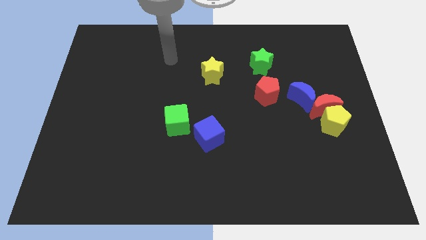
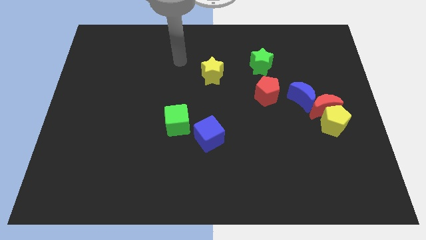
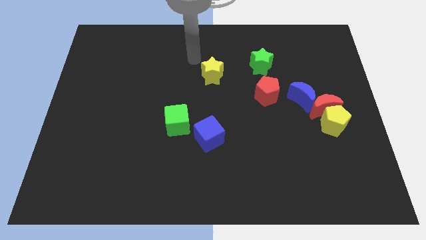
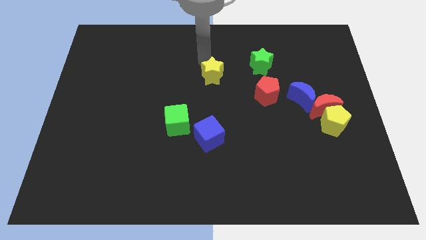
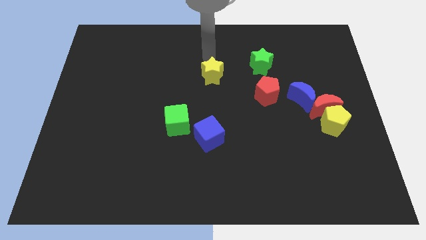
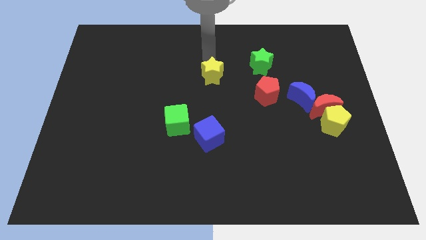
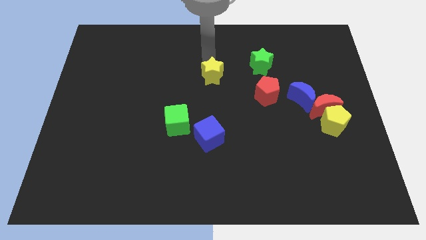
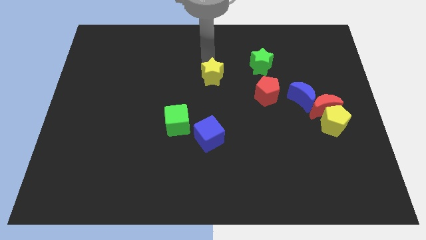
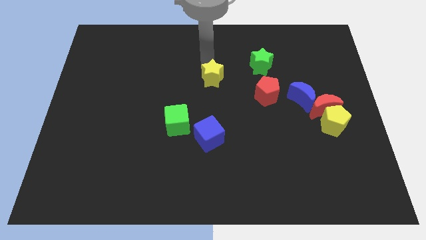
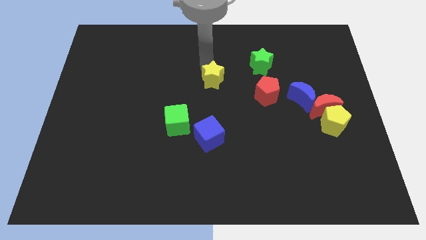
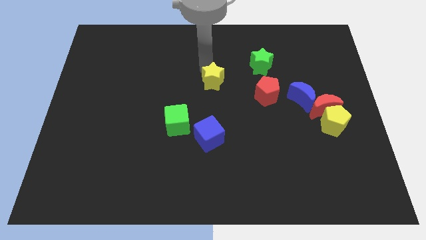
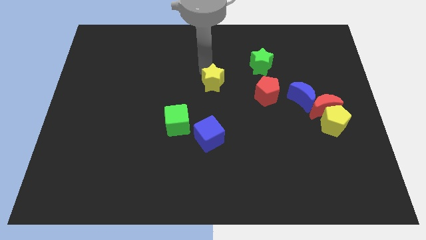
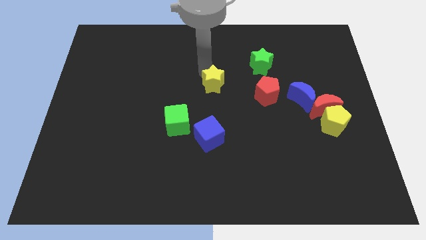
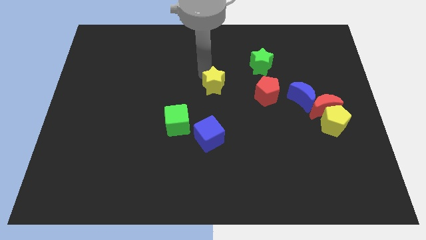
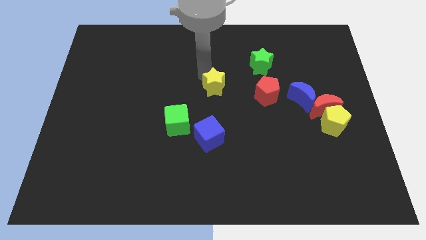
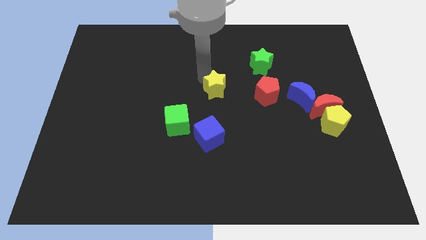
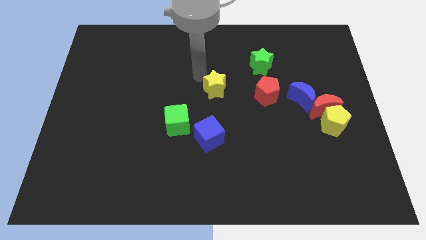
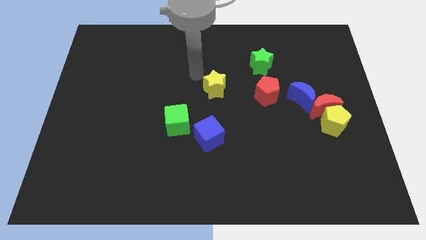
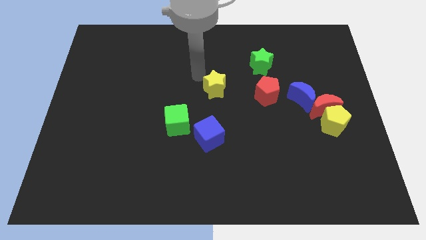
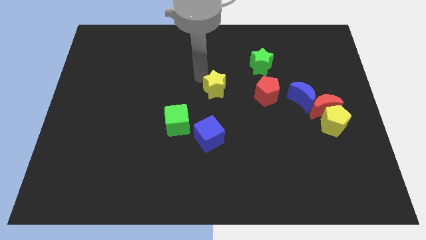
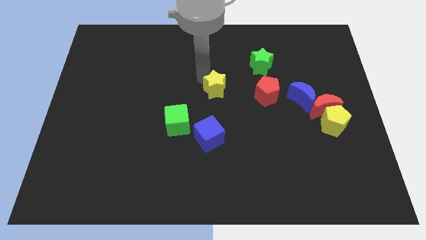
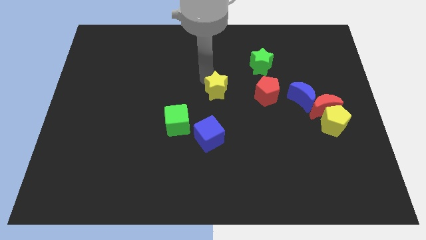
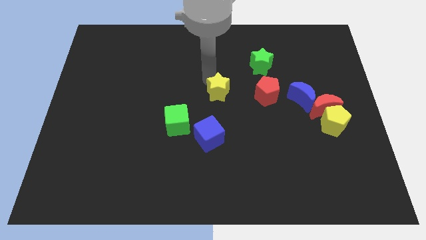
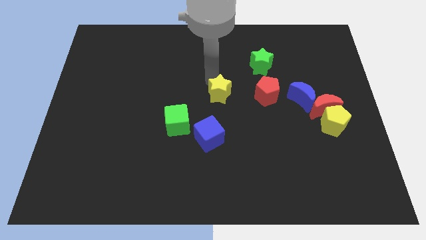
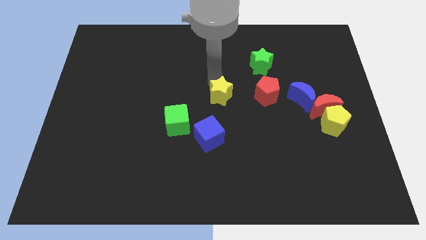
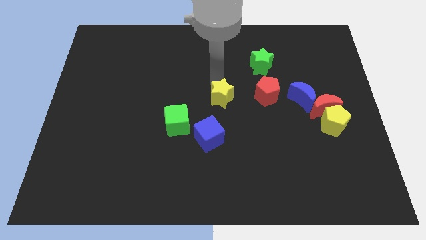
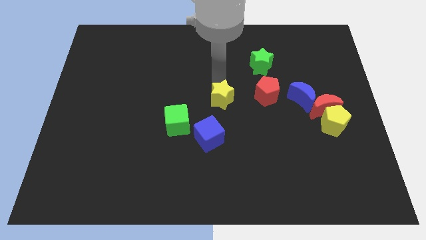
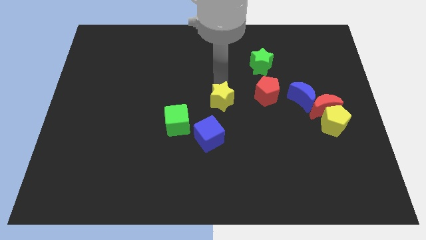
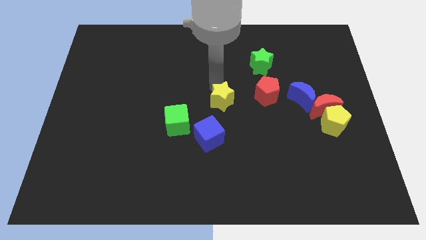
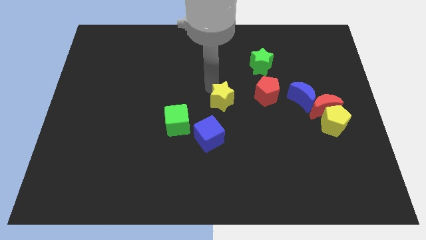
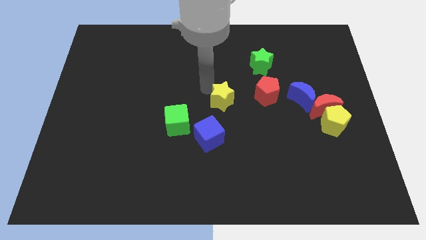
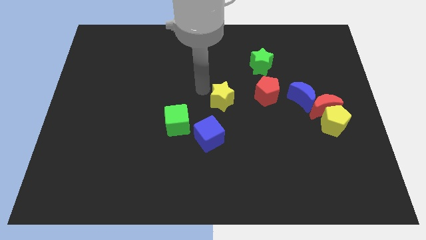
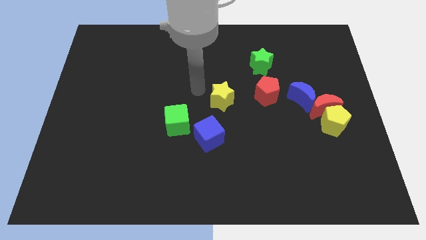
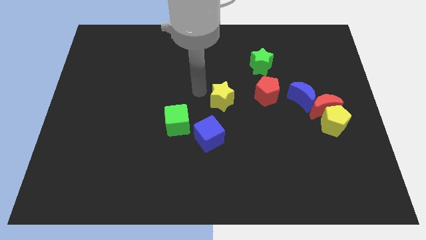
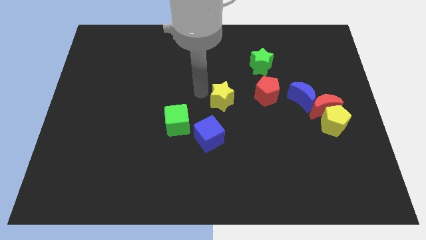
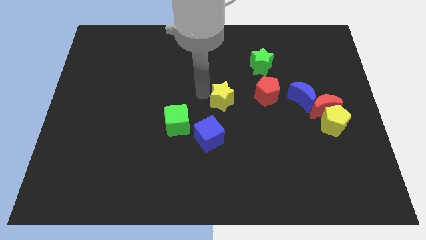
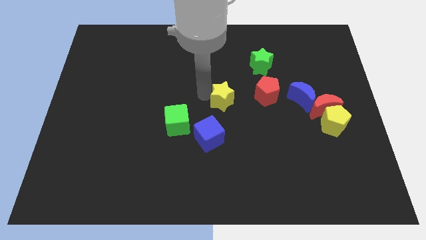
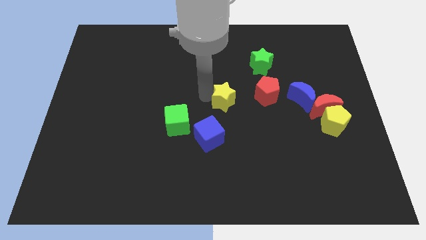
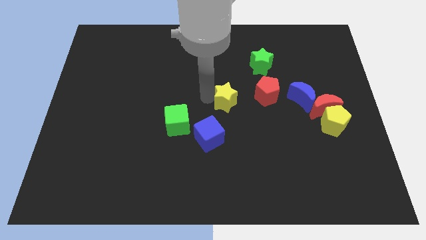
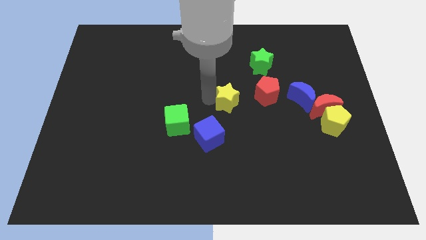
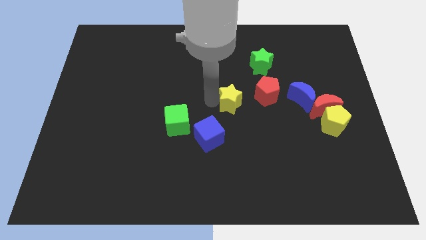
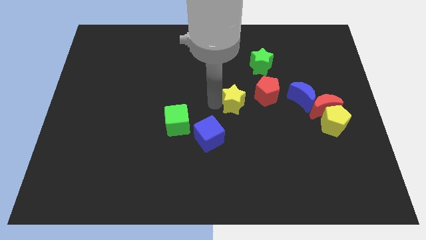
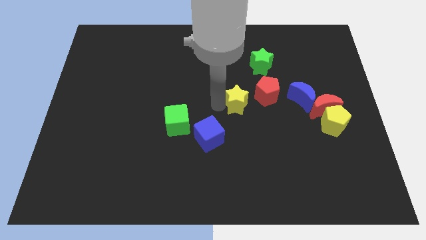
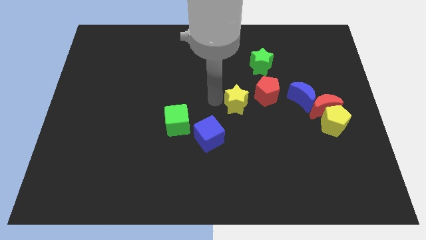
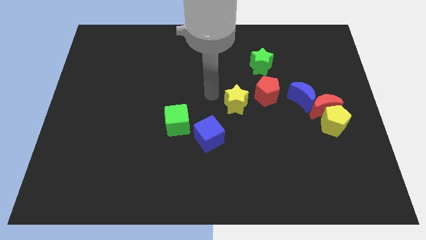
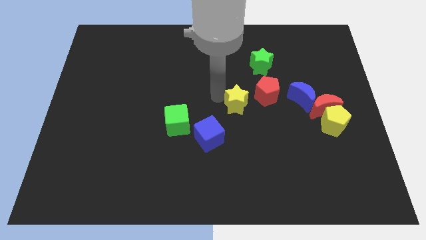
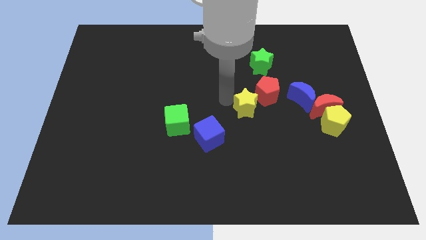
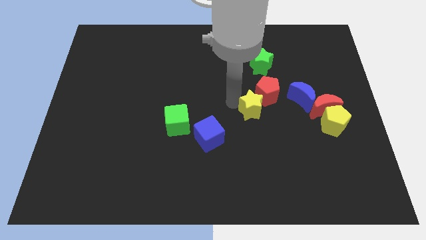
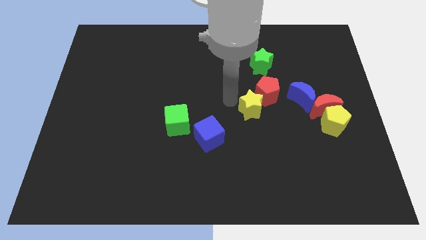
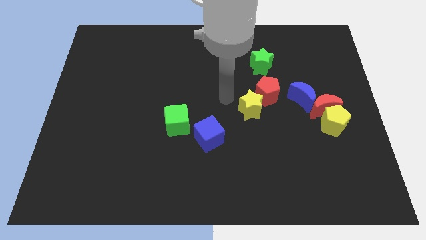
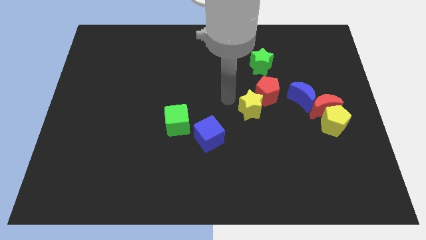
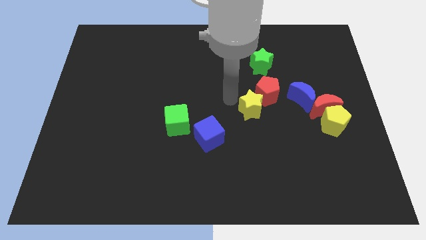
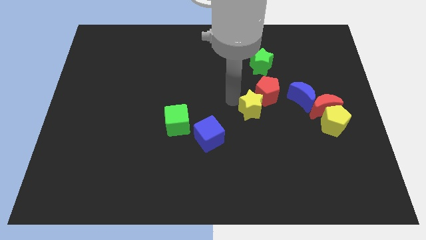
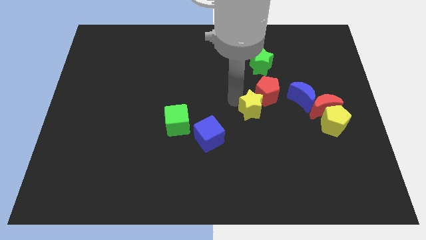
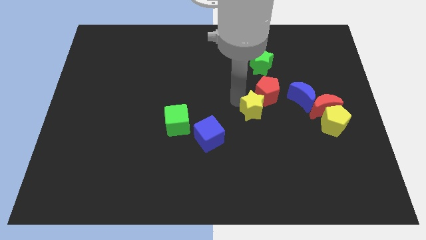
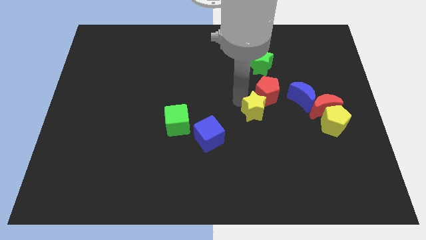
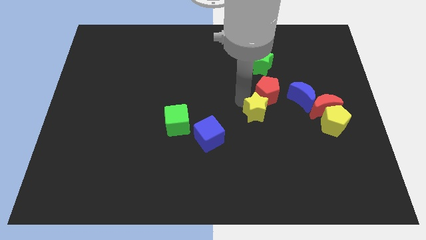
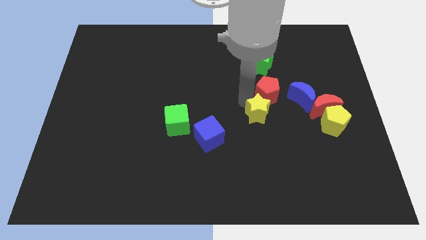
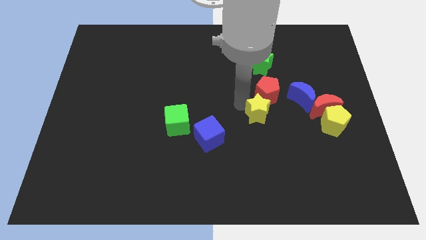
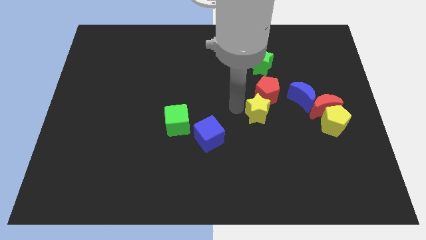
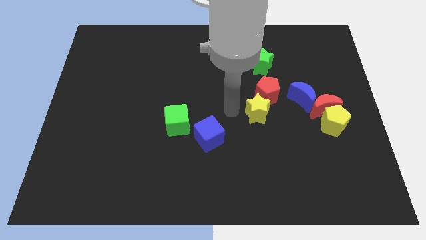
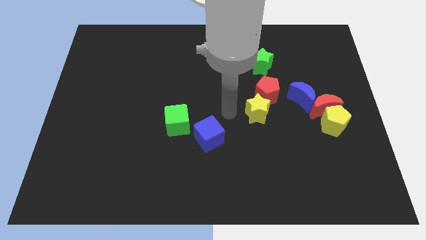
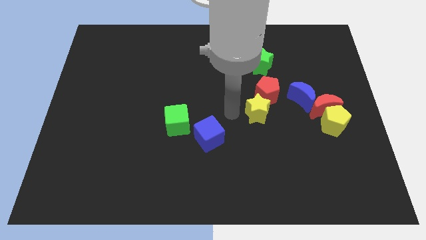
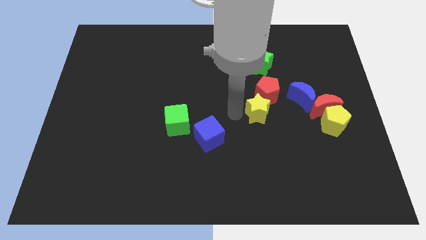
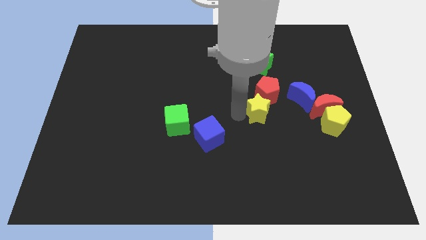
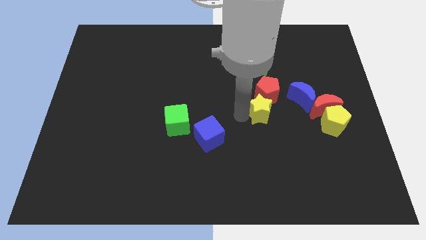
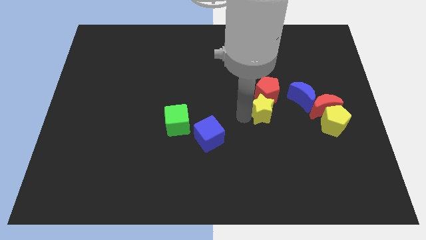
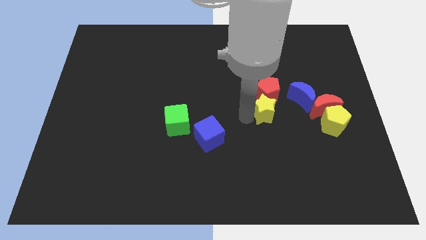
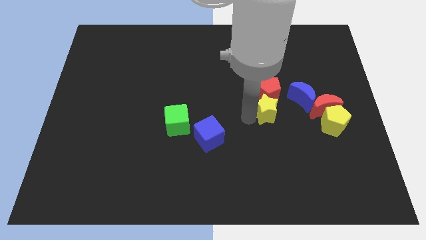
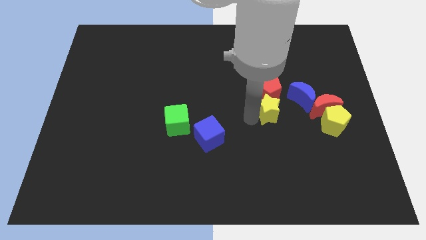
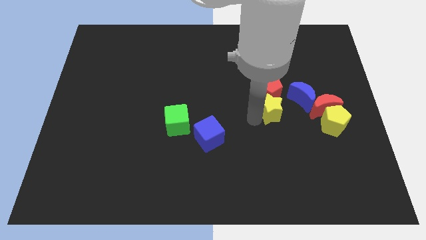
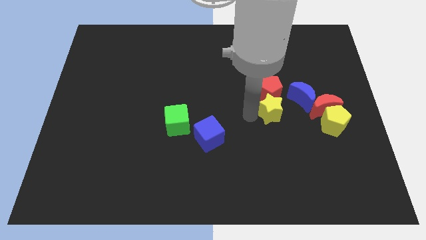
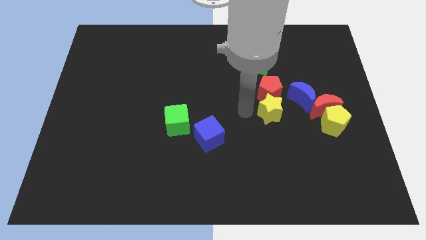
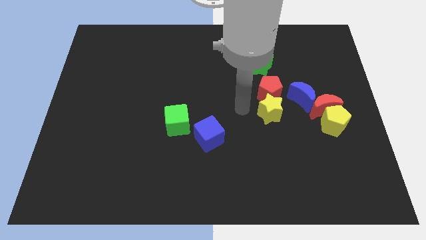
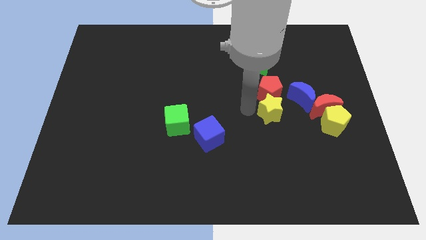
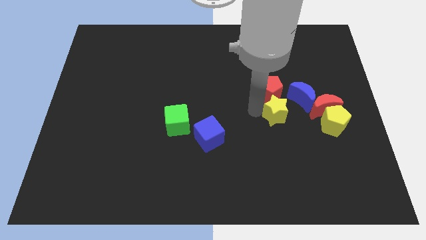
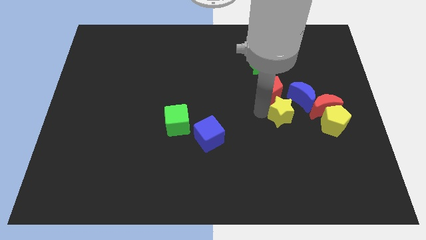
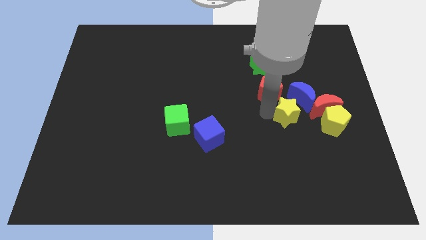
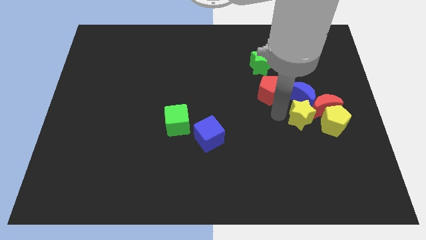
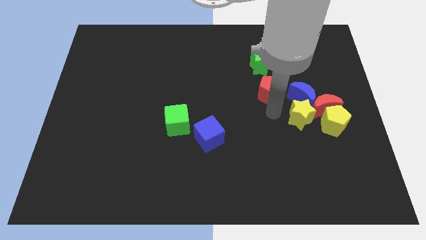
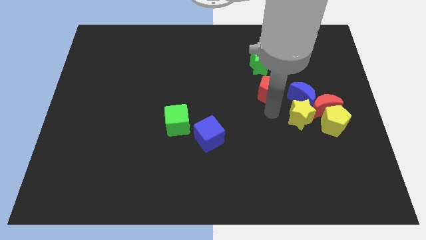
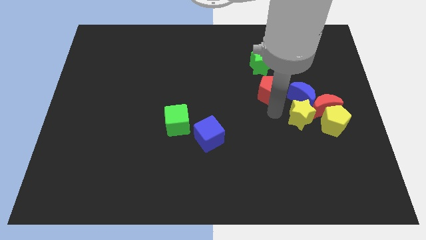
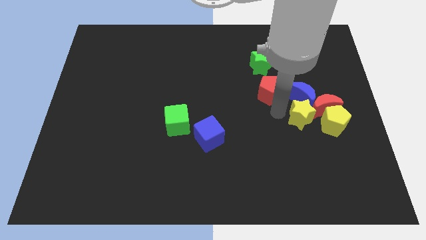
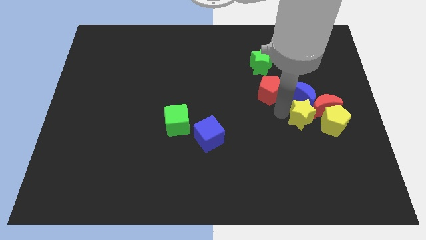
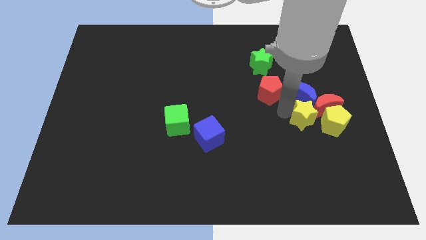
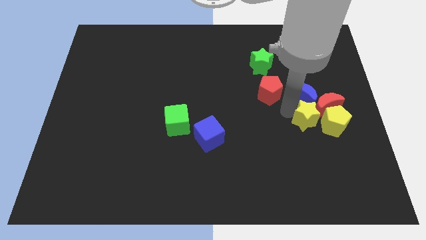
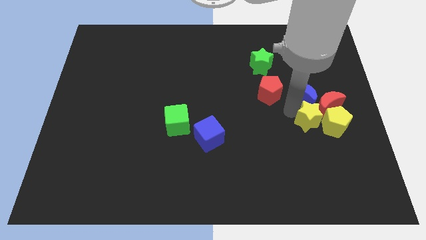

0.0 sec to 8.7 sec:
push the yellow star towards the yellow pentagon
